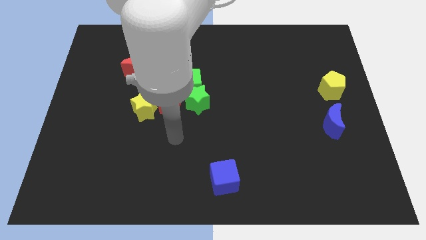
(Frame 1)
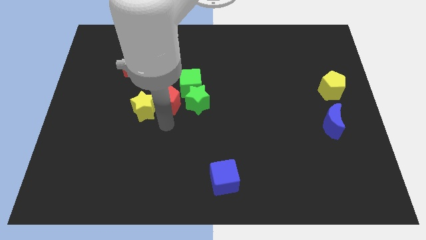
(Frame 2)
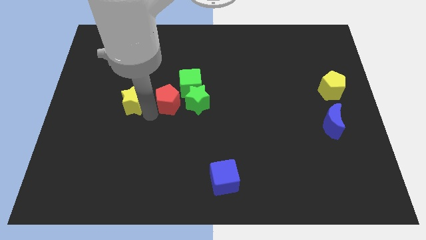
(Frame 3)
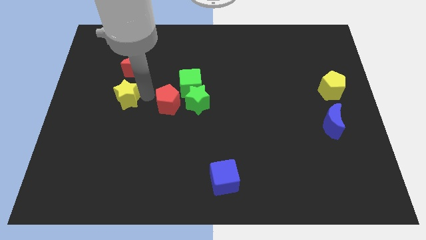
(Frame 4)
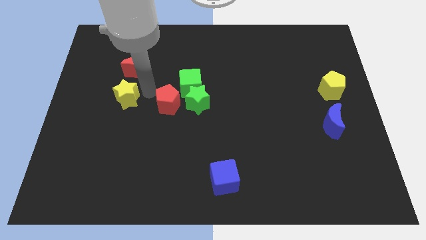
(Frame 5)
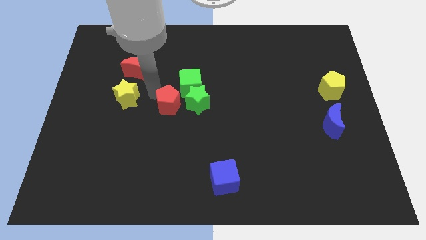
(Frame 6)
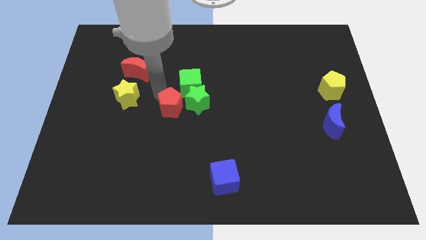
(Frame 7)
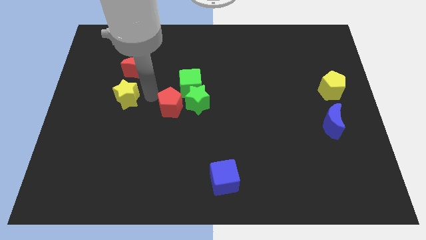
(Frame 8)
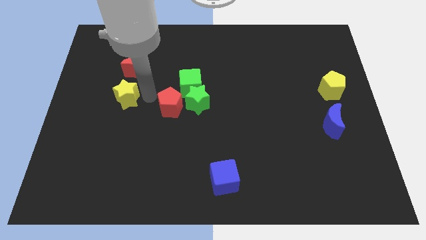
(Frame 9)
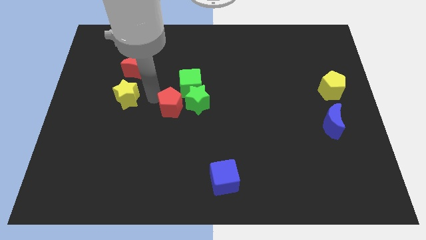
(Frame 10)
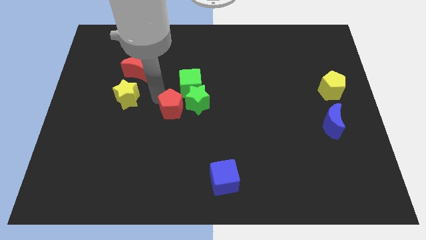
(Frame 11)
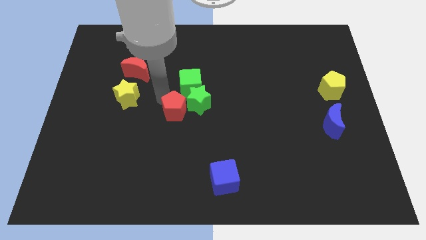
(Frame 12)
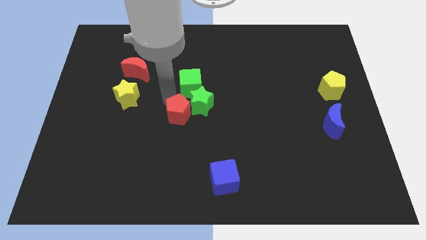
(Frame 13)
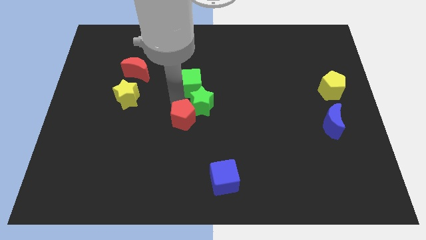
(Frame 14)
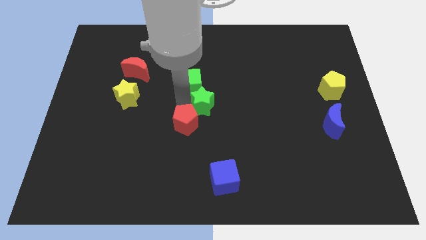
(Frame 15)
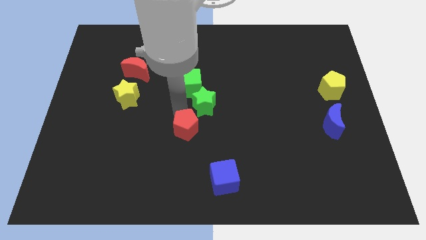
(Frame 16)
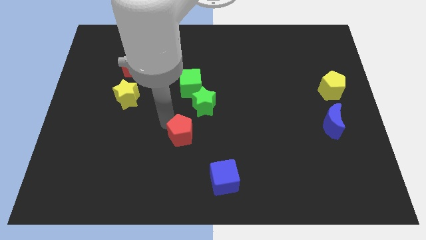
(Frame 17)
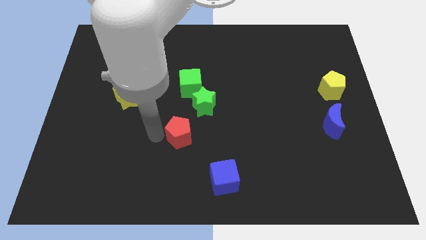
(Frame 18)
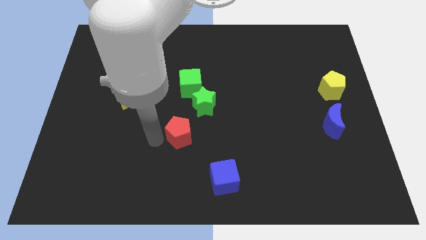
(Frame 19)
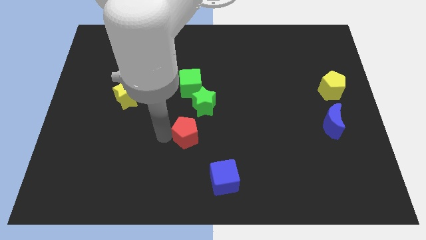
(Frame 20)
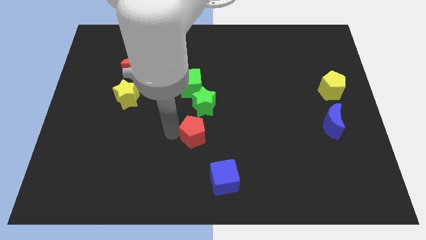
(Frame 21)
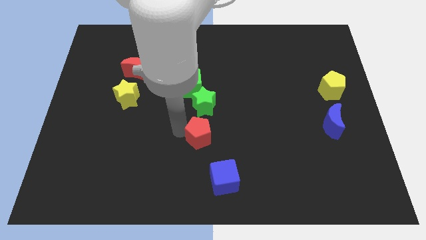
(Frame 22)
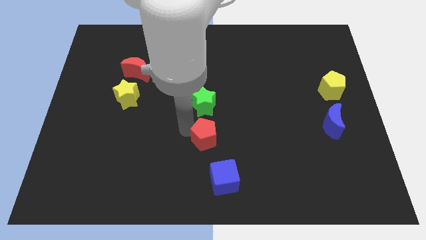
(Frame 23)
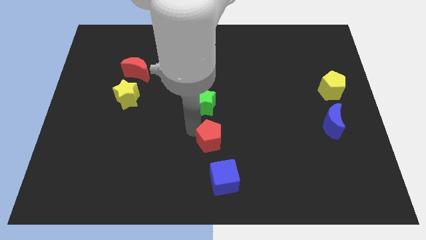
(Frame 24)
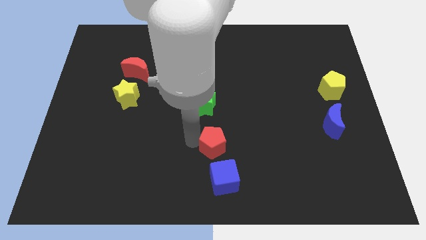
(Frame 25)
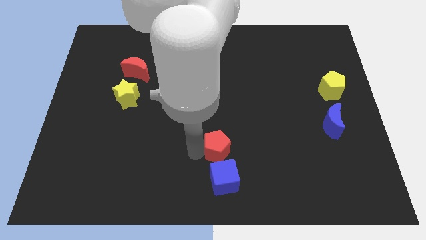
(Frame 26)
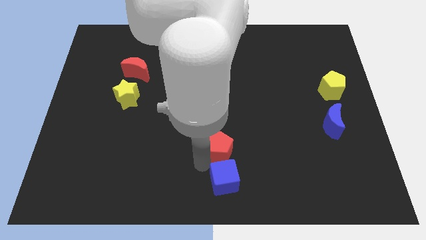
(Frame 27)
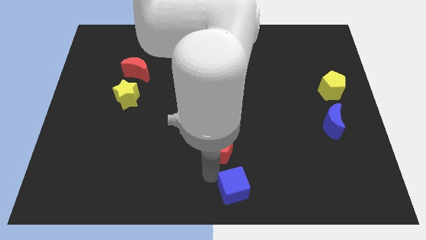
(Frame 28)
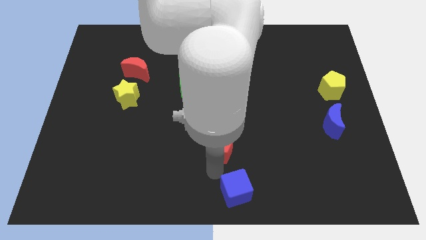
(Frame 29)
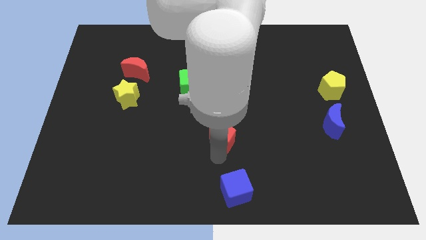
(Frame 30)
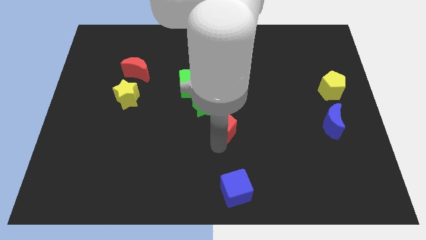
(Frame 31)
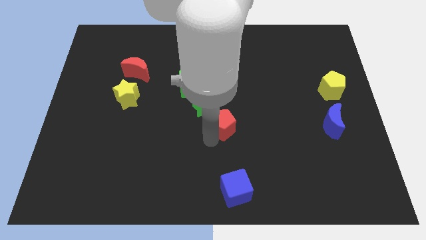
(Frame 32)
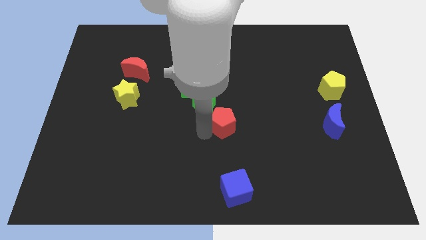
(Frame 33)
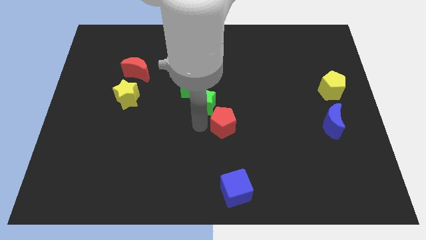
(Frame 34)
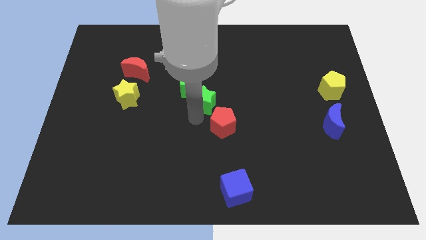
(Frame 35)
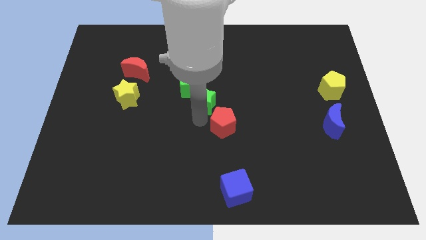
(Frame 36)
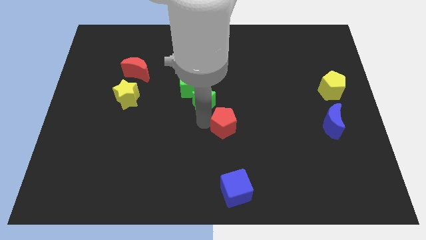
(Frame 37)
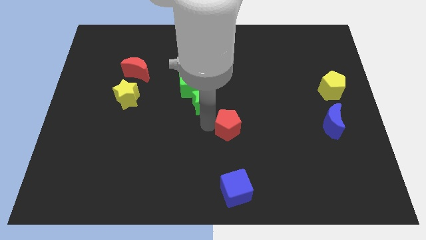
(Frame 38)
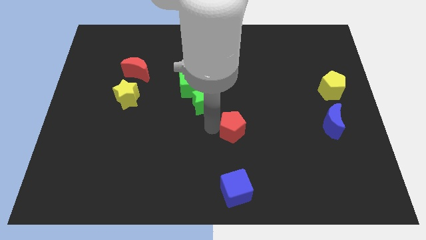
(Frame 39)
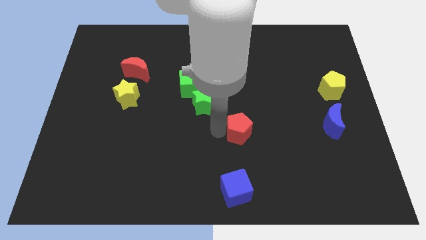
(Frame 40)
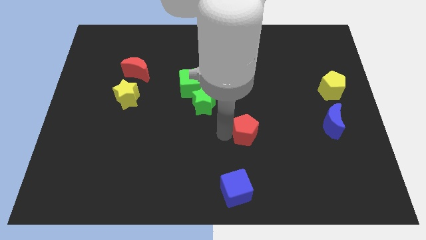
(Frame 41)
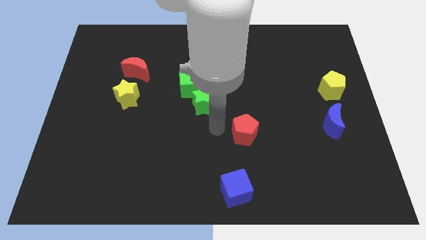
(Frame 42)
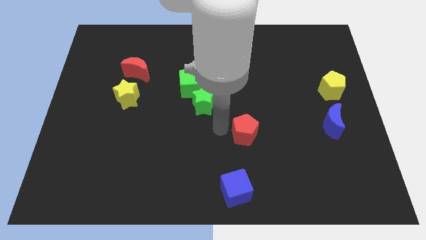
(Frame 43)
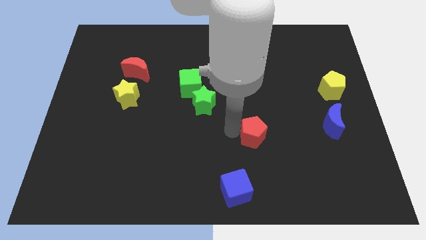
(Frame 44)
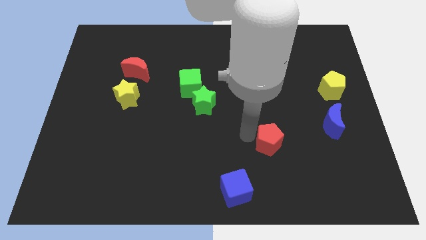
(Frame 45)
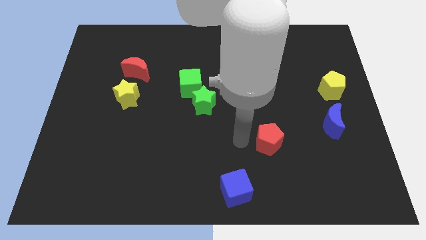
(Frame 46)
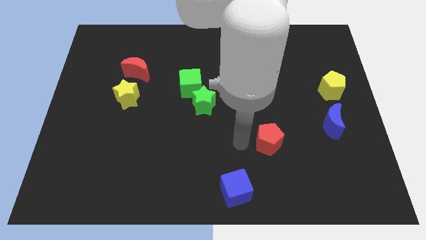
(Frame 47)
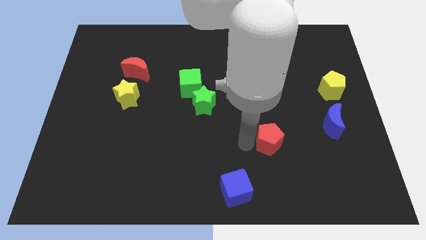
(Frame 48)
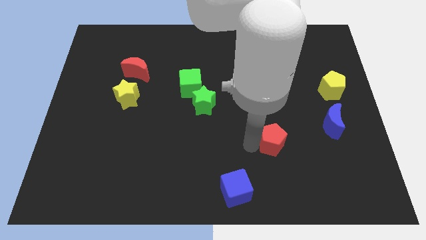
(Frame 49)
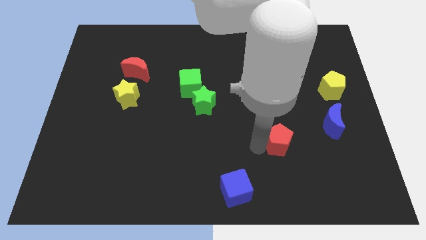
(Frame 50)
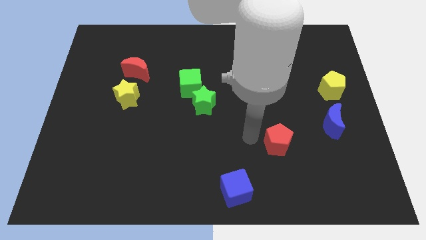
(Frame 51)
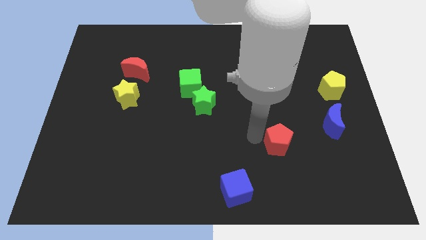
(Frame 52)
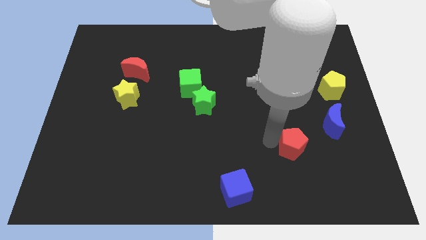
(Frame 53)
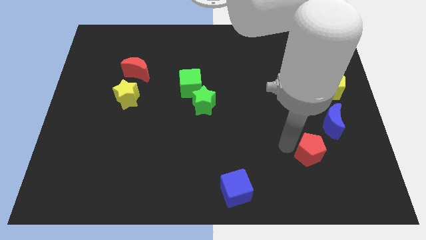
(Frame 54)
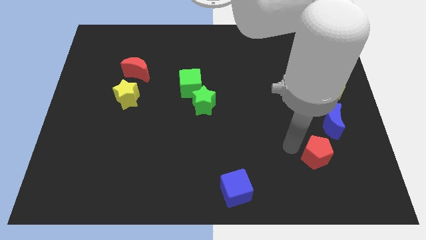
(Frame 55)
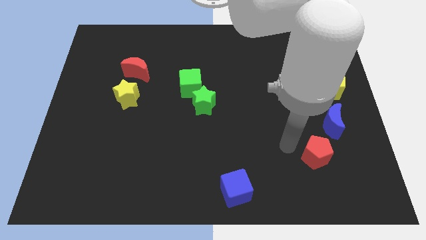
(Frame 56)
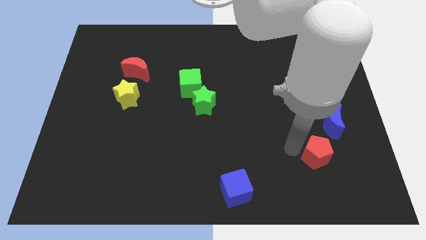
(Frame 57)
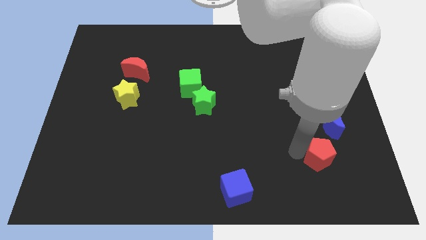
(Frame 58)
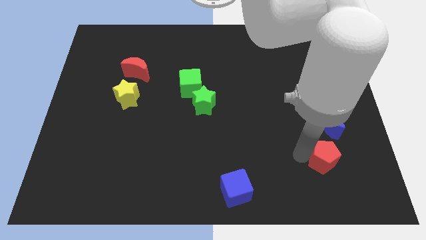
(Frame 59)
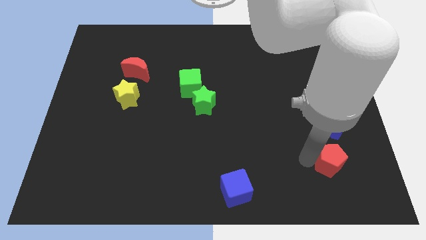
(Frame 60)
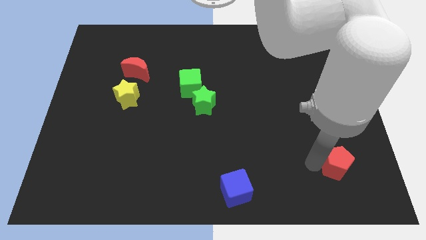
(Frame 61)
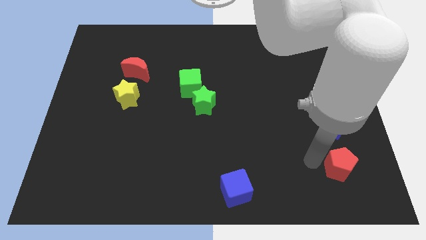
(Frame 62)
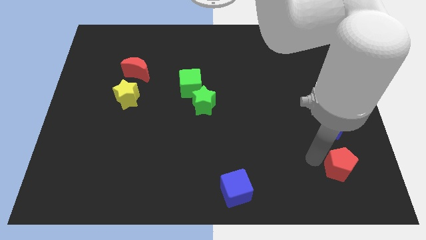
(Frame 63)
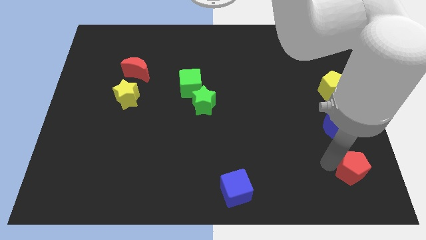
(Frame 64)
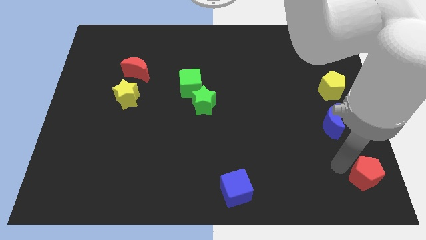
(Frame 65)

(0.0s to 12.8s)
move the red pentagon to the lower right corner

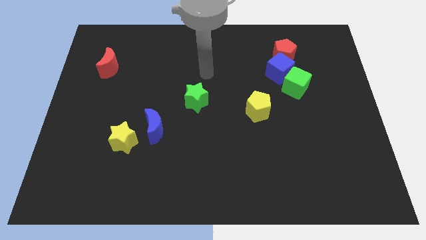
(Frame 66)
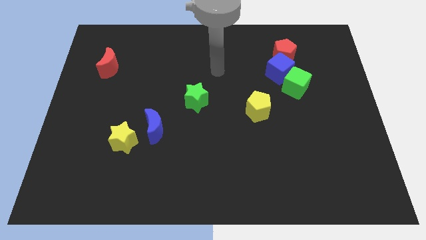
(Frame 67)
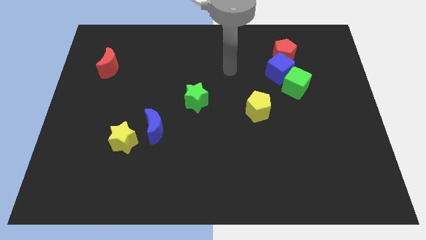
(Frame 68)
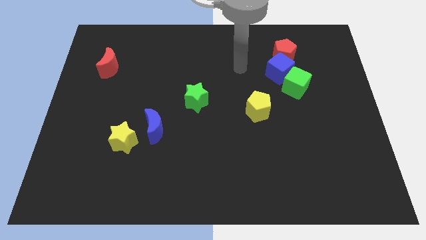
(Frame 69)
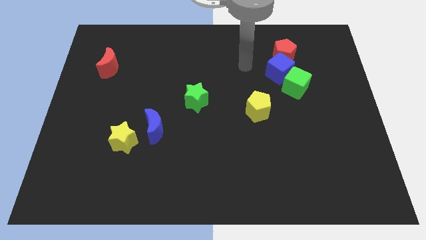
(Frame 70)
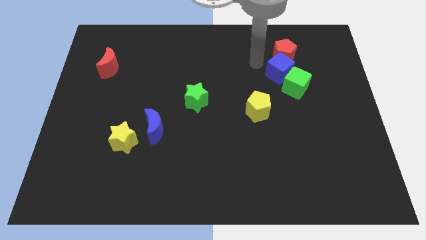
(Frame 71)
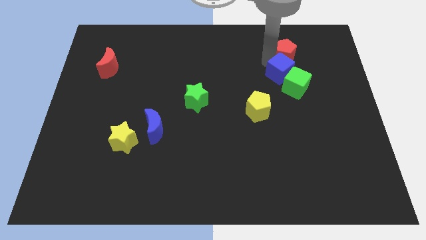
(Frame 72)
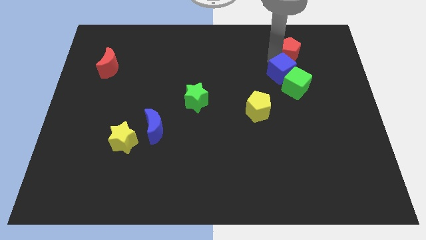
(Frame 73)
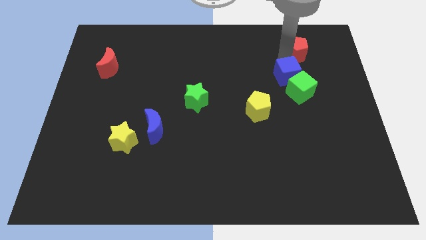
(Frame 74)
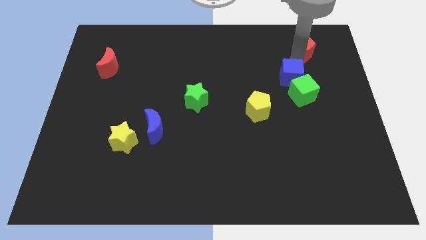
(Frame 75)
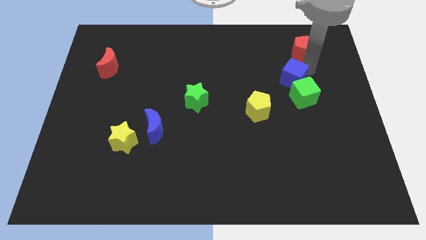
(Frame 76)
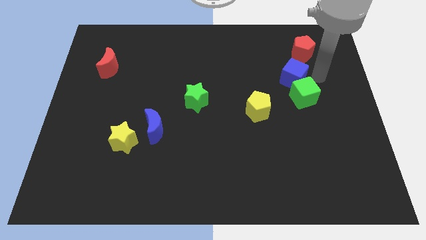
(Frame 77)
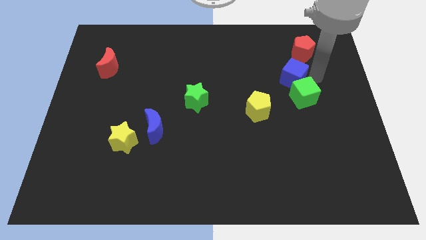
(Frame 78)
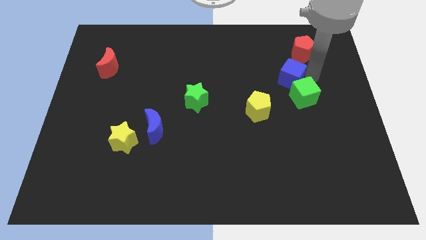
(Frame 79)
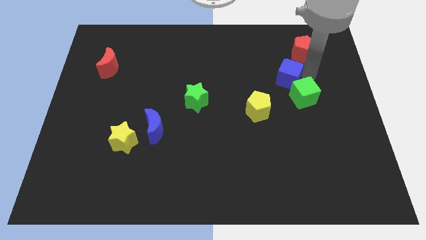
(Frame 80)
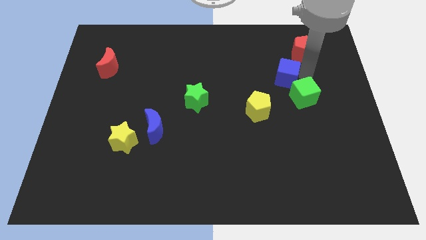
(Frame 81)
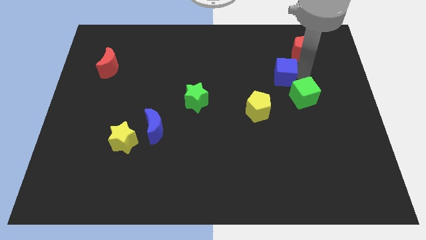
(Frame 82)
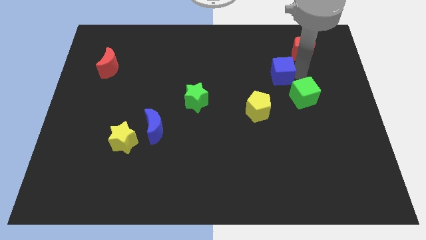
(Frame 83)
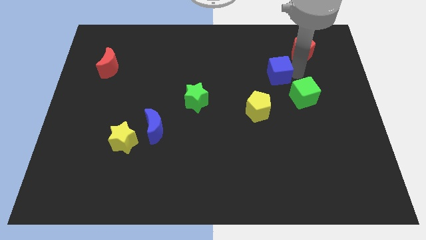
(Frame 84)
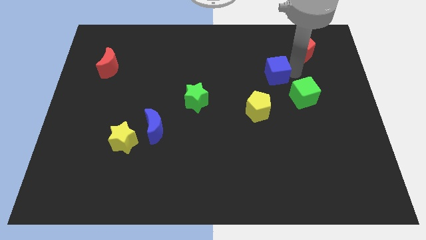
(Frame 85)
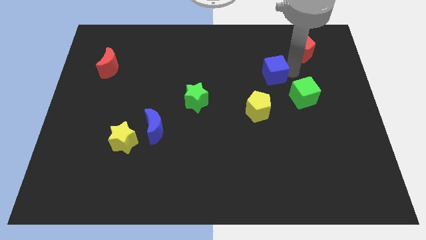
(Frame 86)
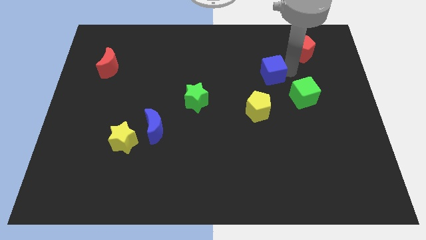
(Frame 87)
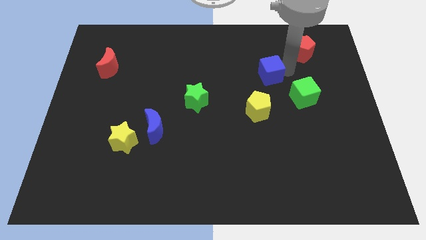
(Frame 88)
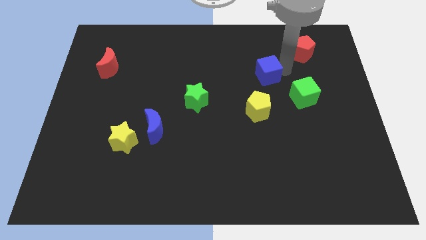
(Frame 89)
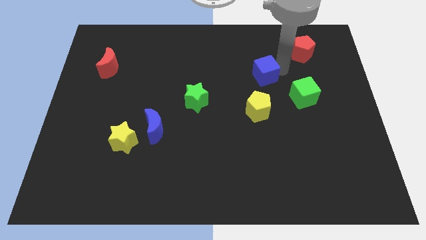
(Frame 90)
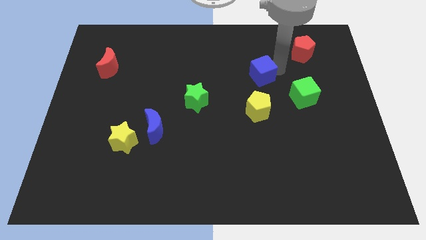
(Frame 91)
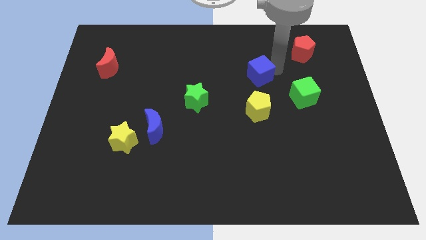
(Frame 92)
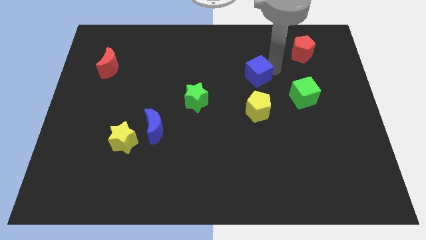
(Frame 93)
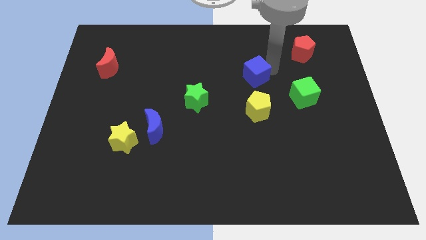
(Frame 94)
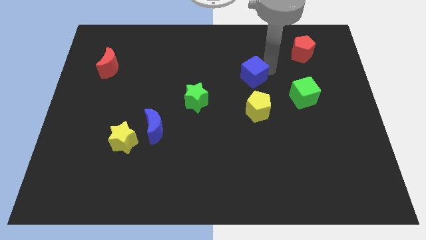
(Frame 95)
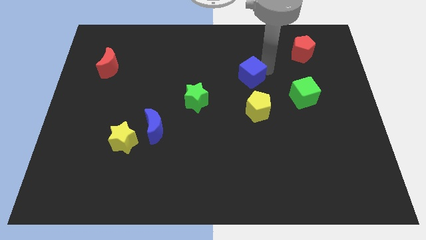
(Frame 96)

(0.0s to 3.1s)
put the blue cube to the center
